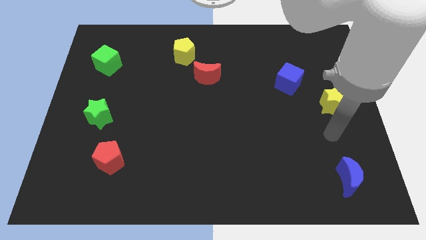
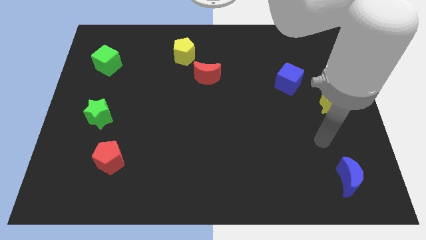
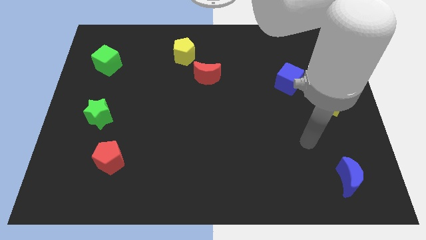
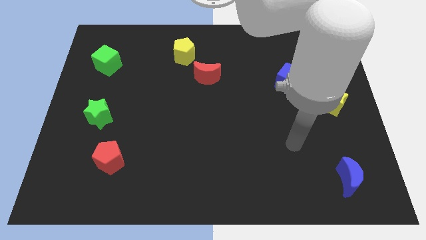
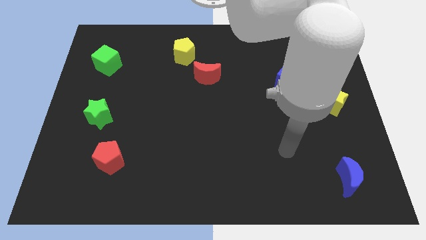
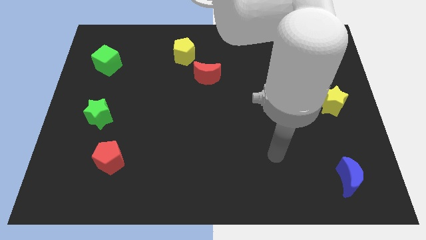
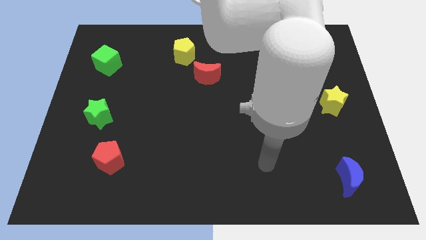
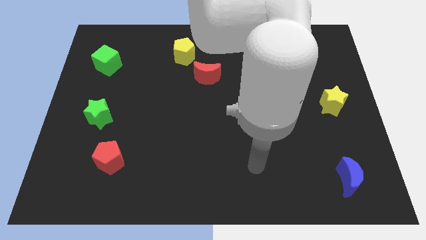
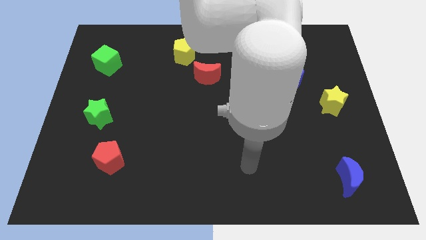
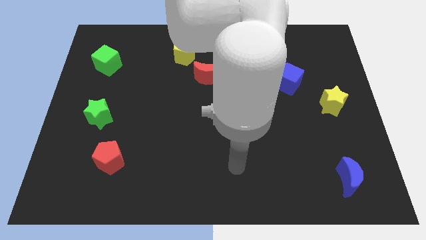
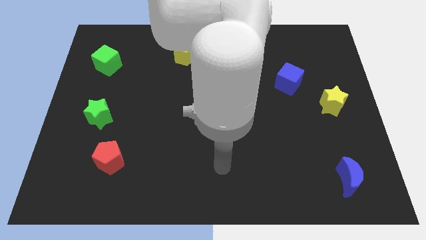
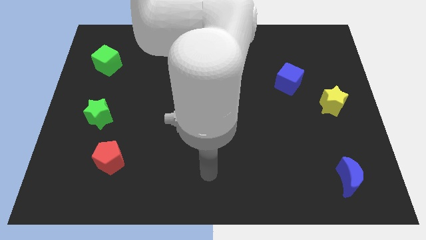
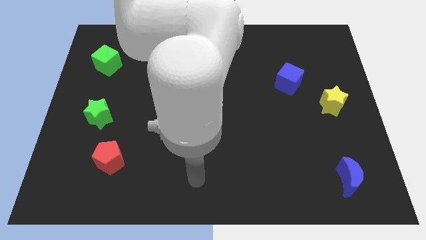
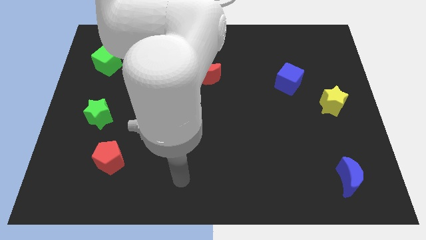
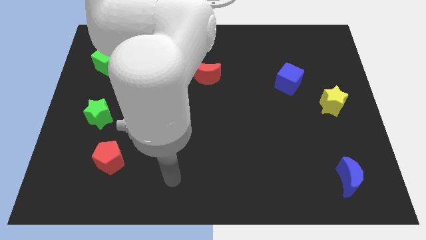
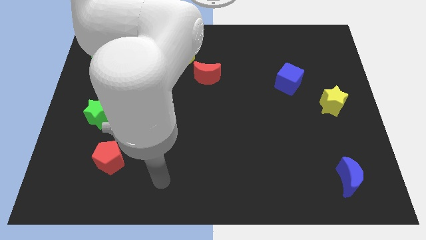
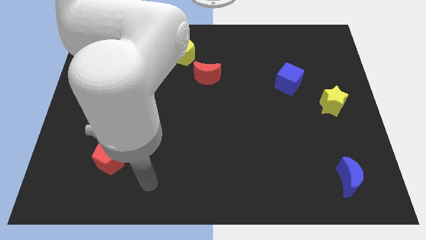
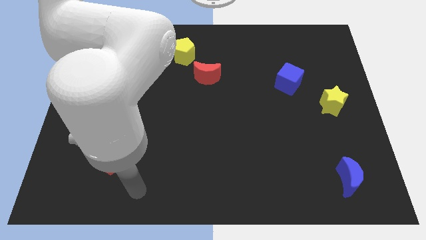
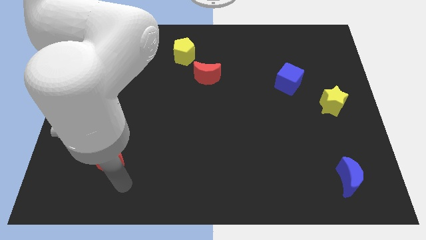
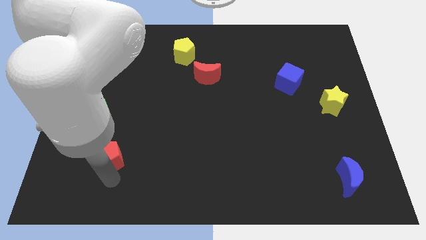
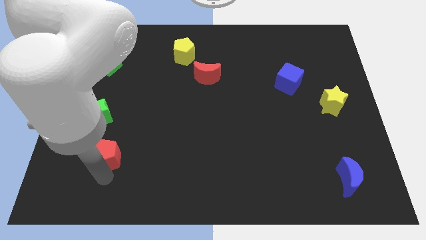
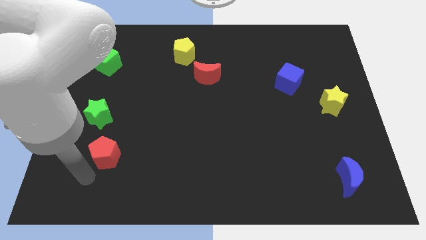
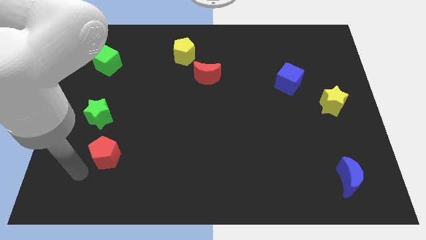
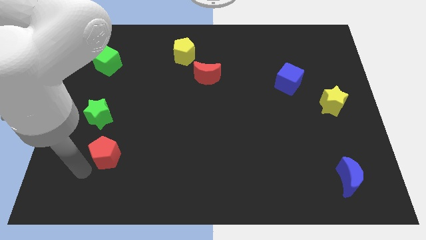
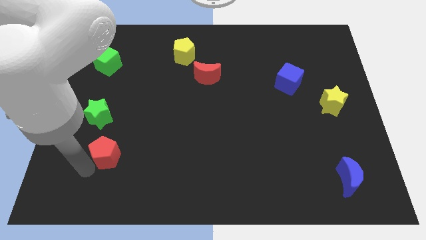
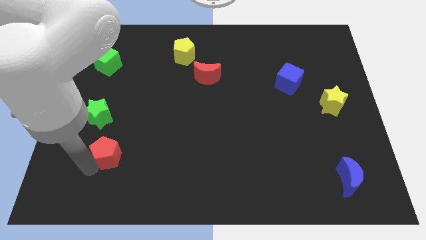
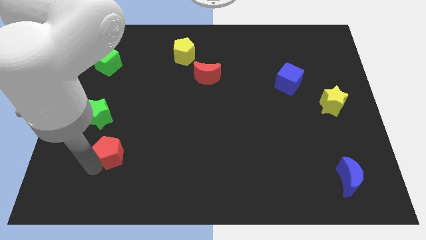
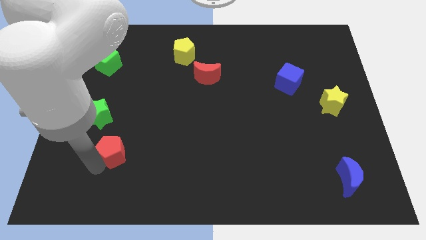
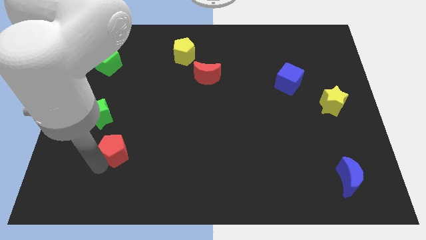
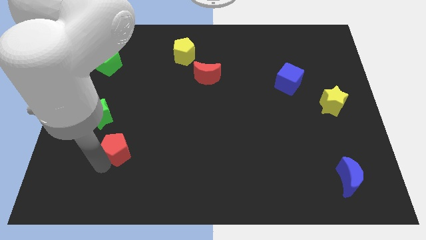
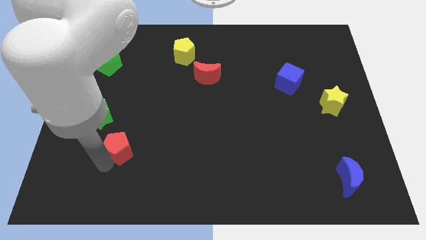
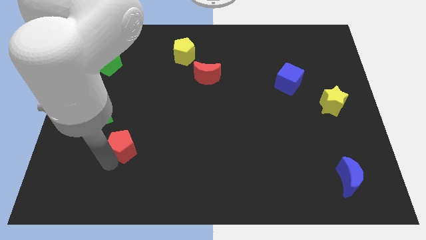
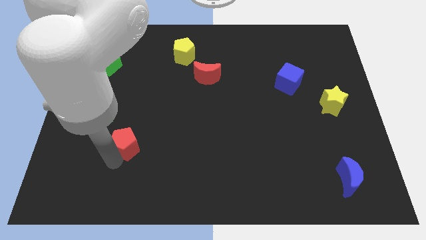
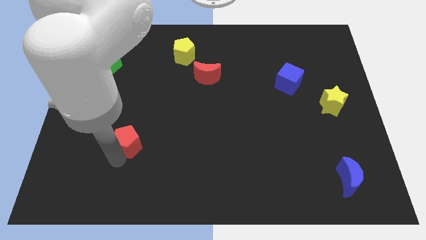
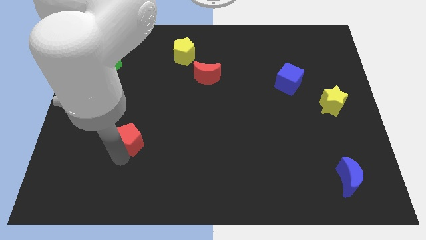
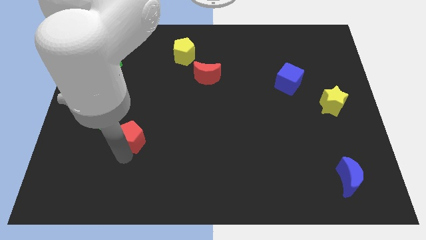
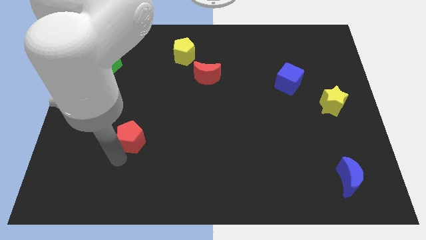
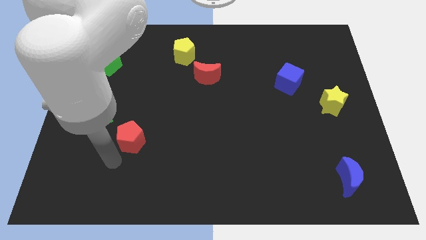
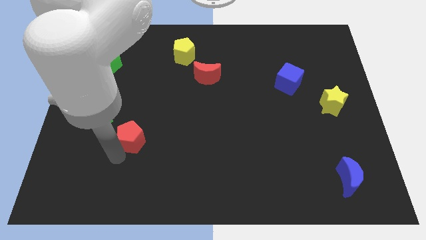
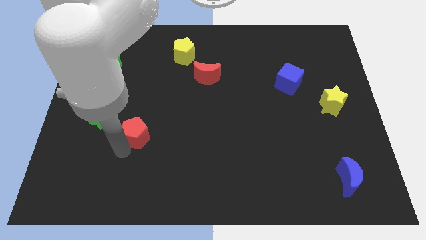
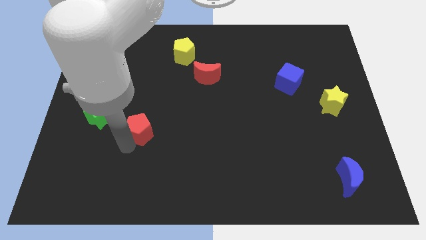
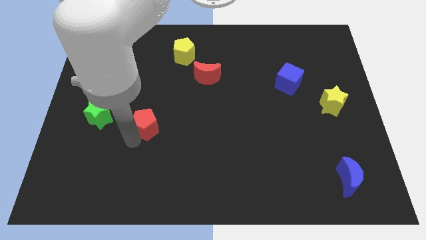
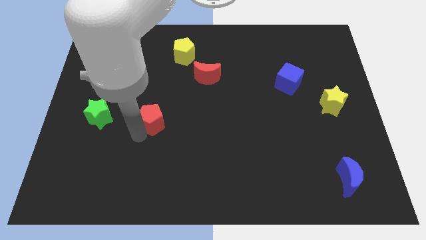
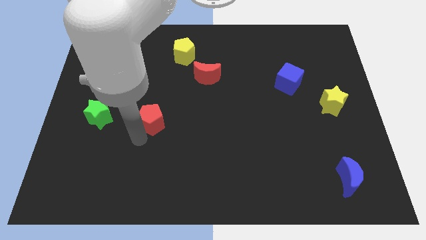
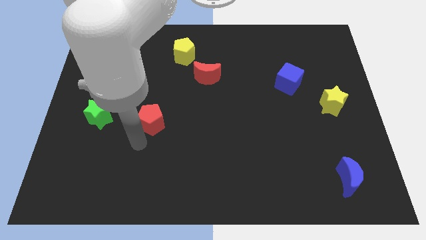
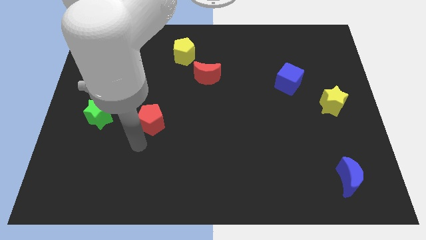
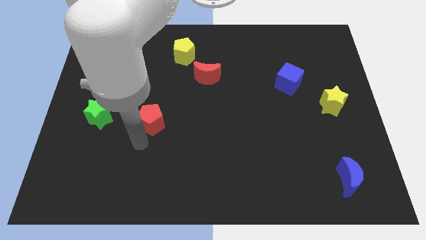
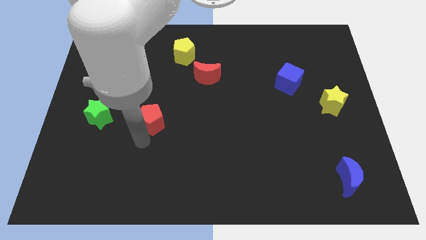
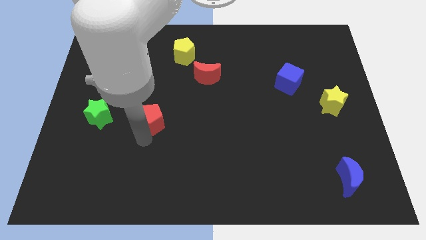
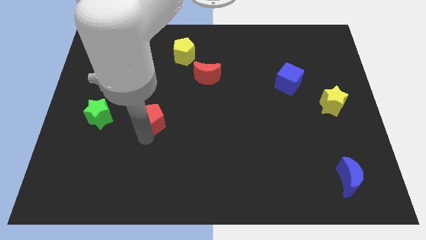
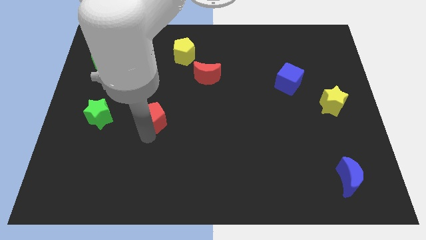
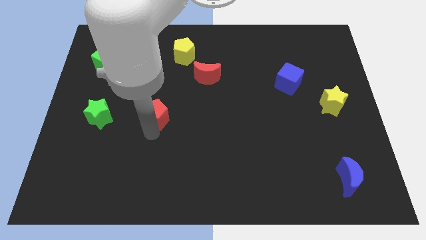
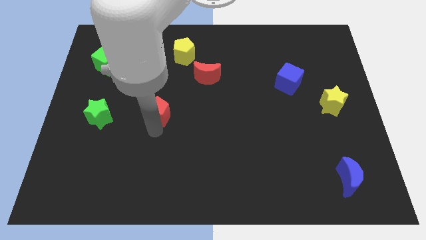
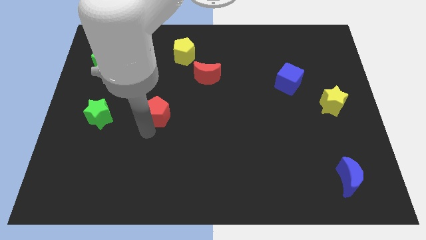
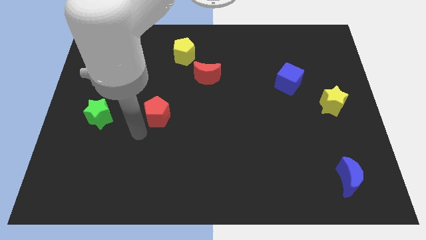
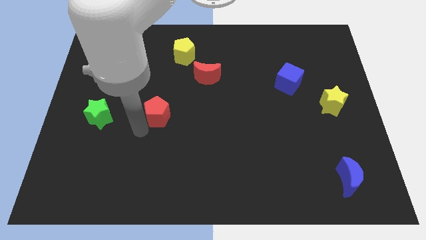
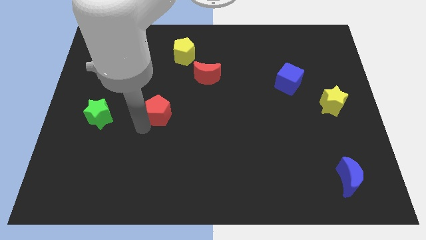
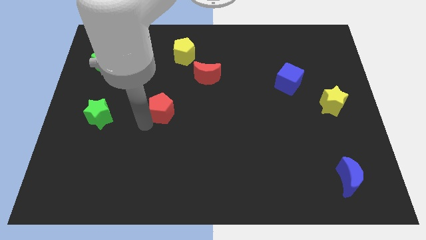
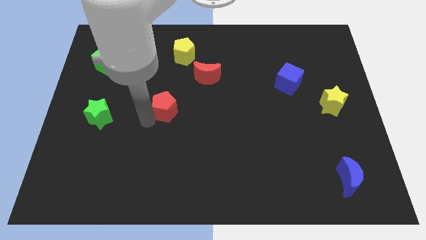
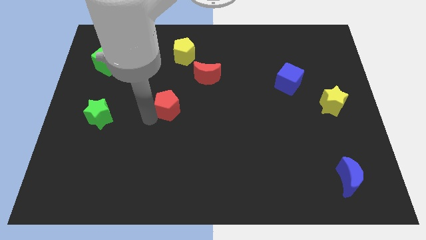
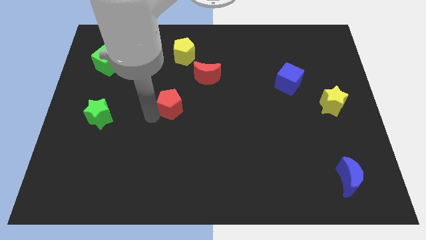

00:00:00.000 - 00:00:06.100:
push the red pentagon to the bottom left of the red moon

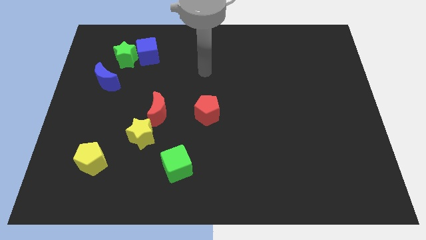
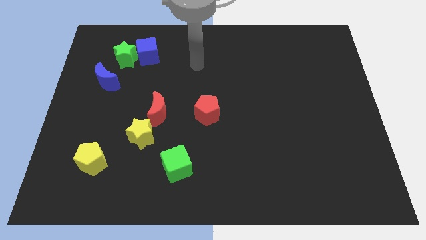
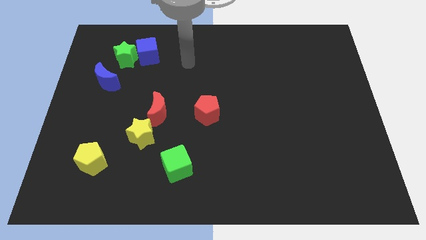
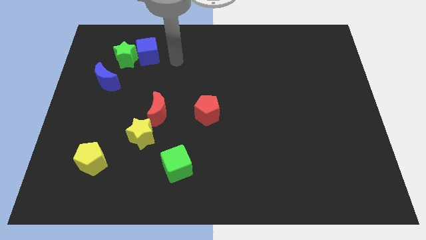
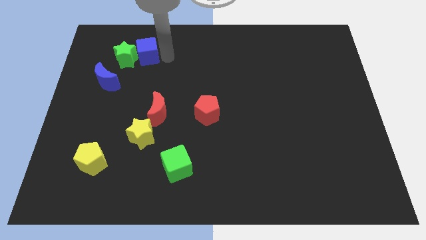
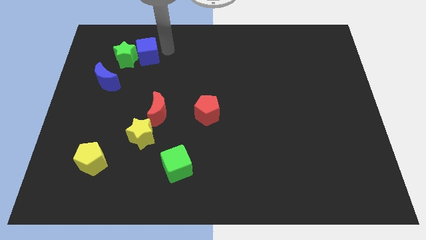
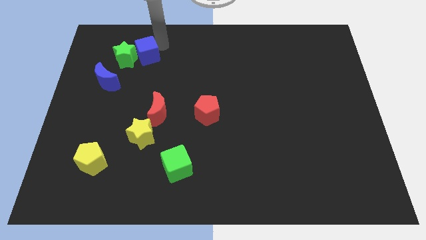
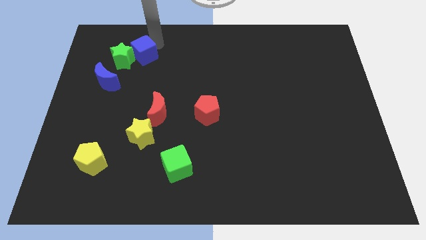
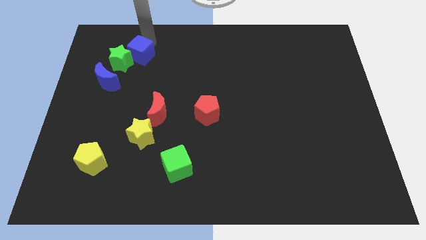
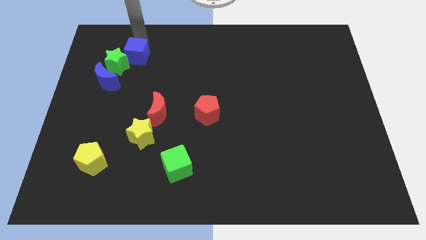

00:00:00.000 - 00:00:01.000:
push the green star to the bottom side of the blue cube
